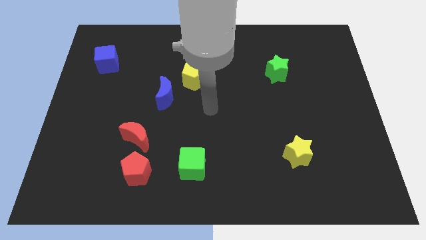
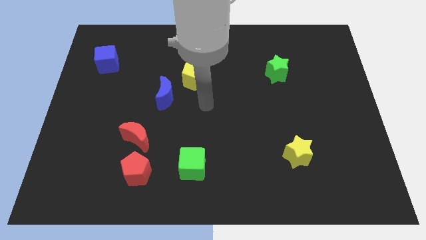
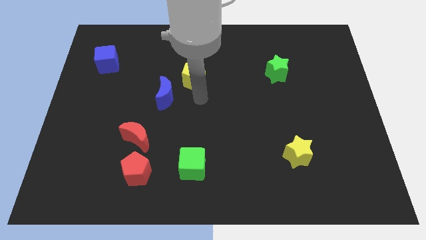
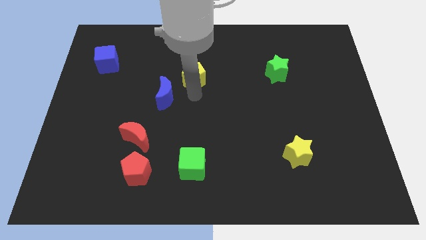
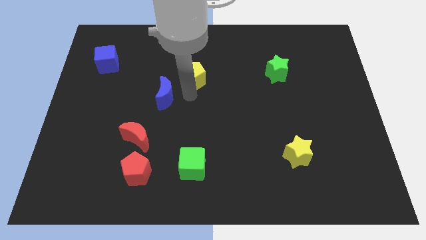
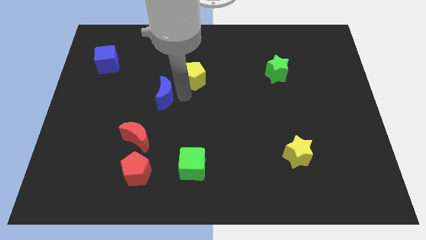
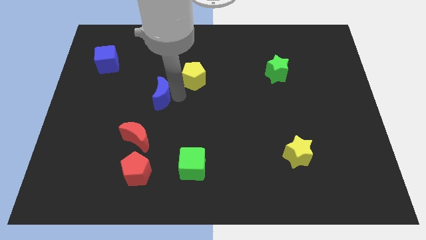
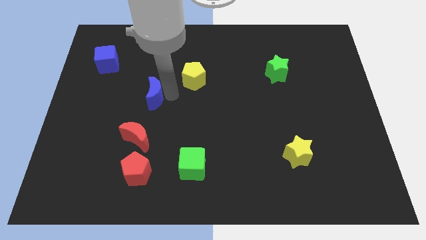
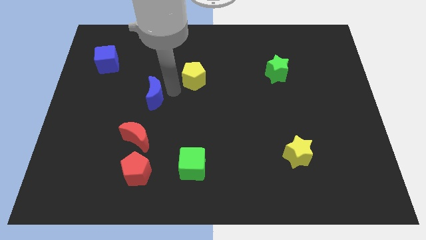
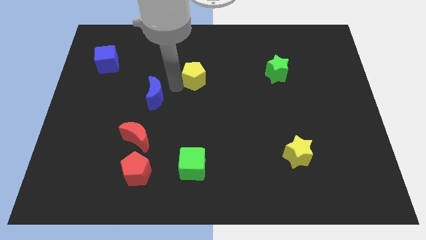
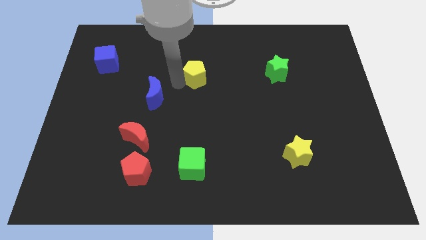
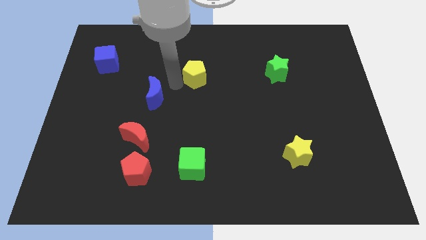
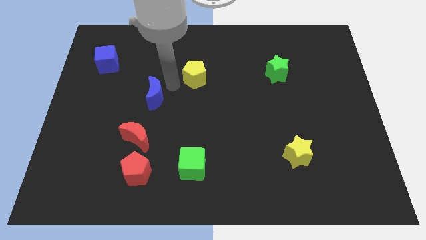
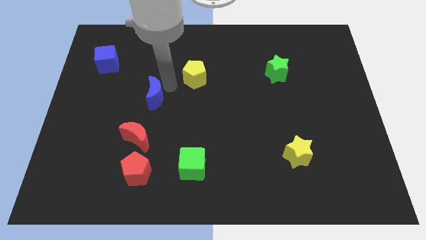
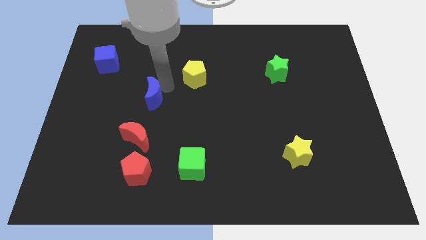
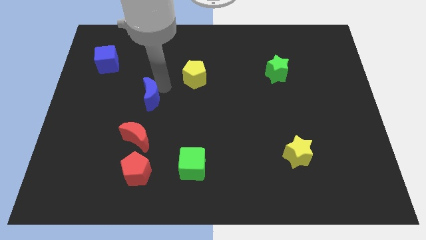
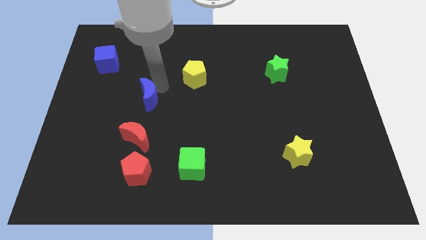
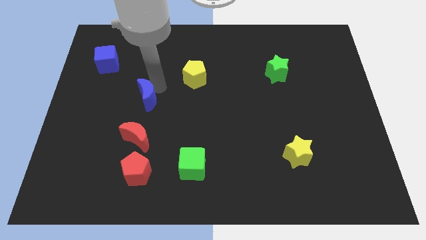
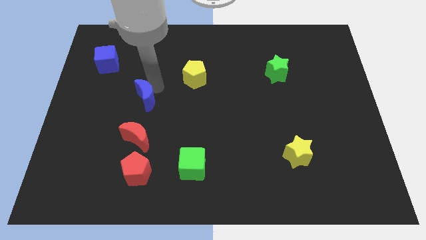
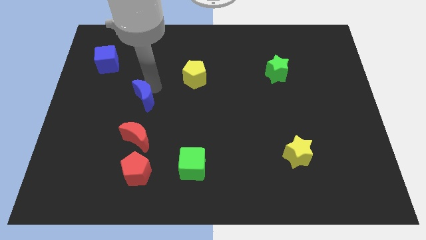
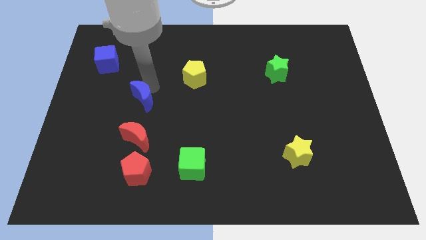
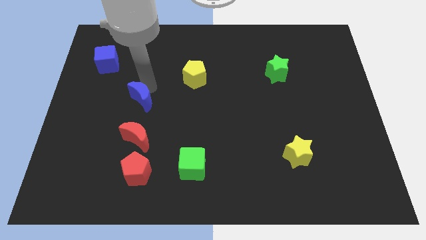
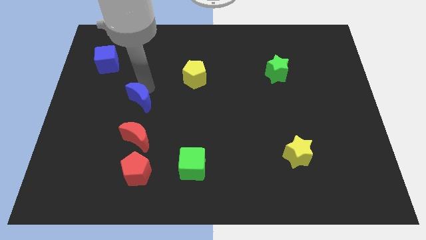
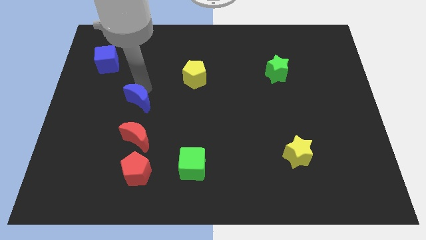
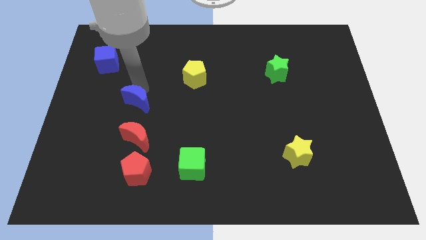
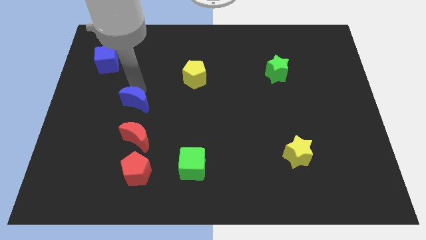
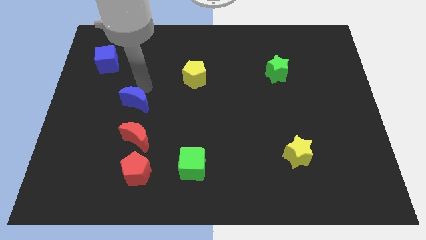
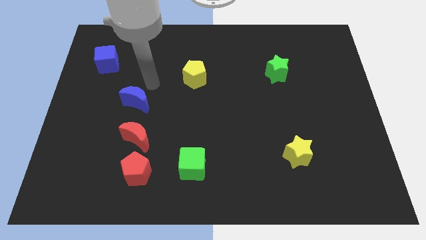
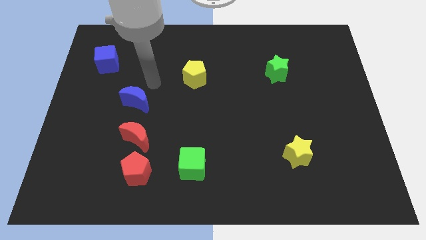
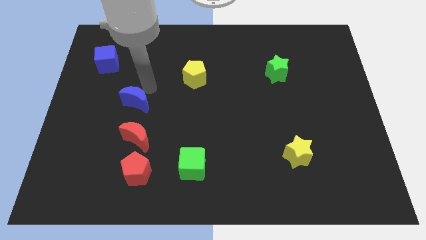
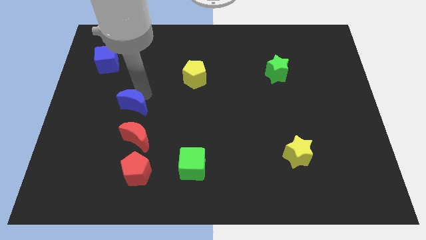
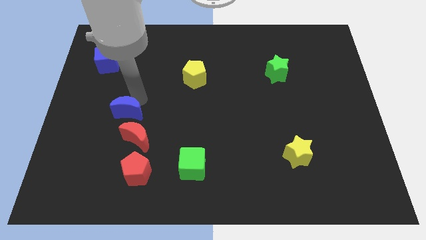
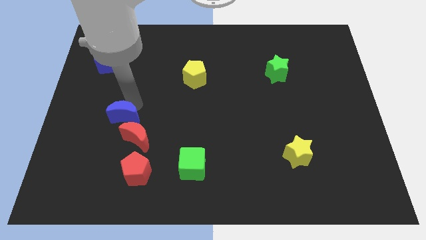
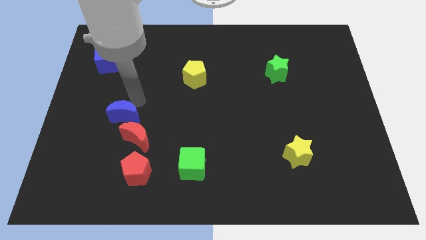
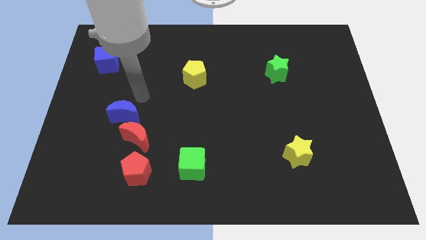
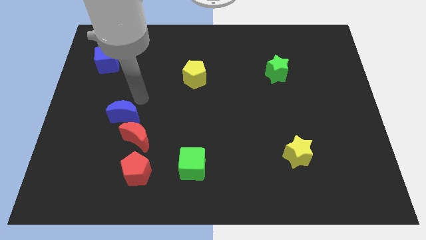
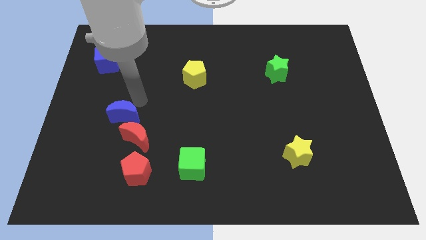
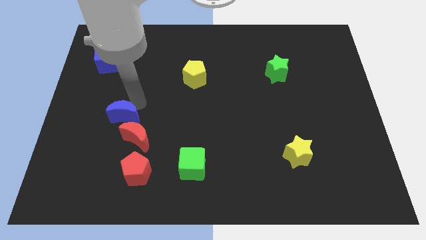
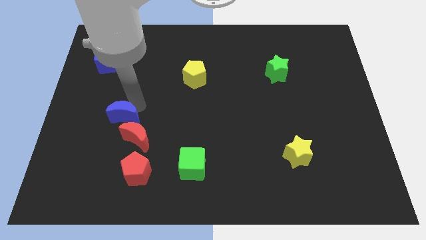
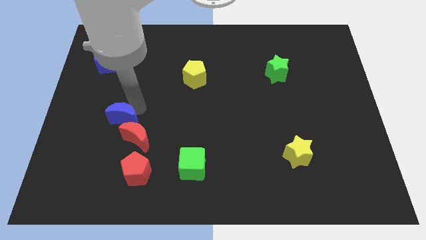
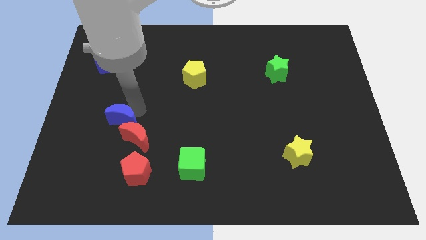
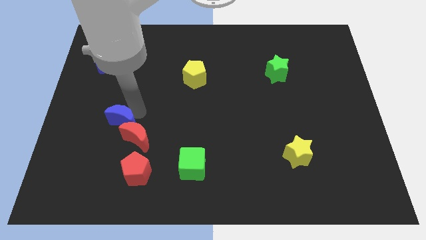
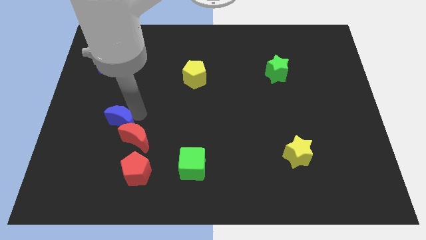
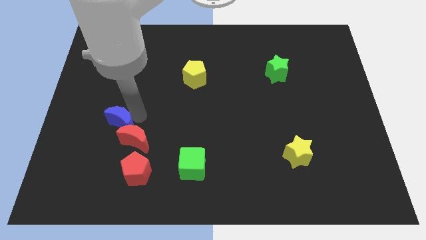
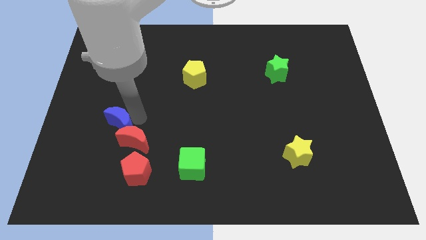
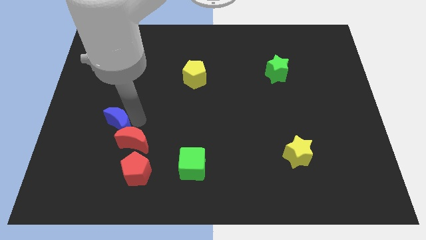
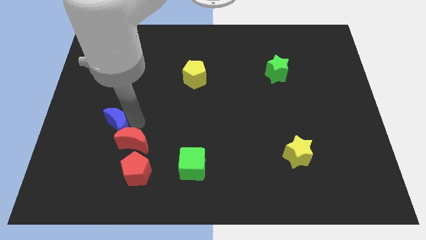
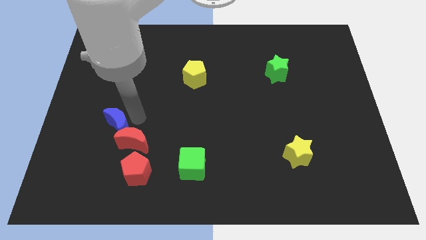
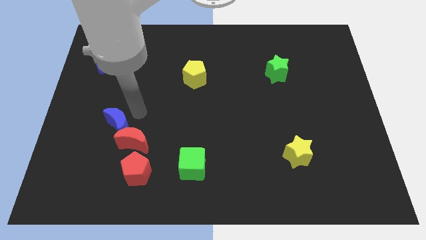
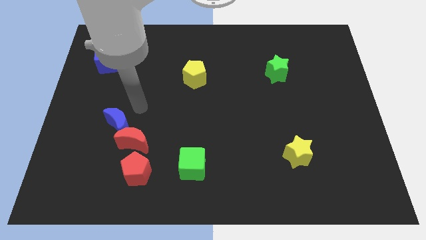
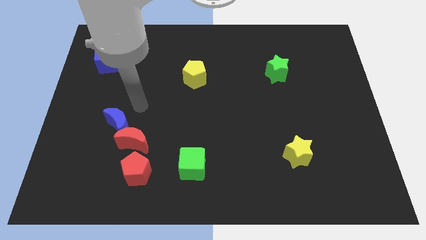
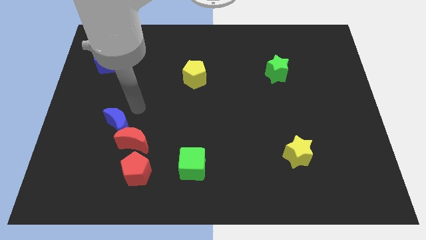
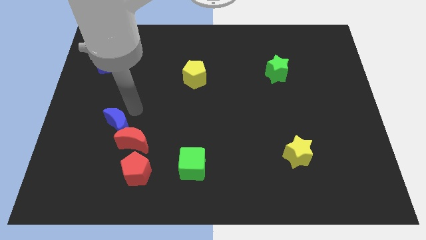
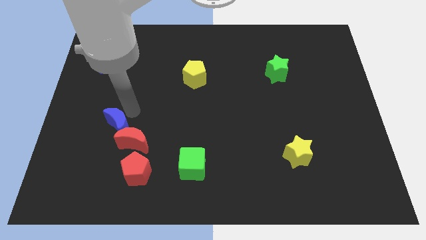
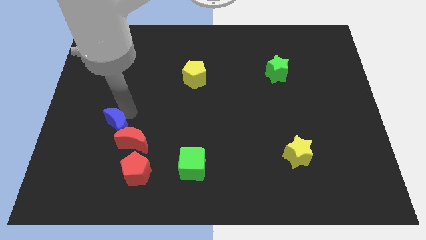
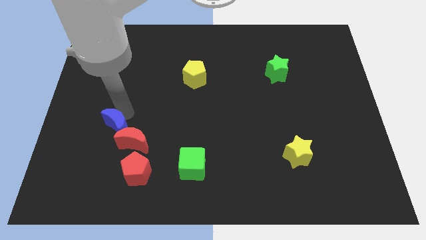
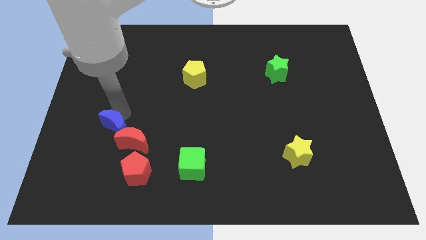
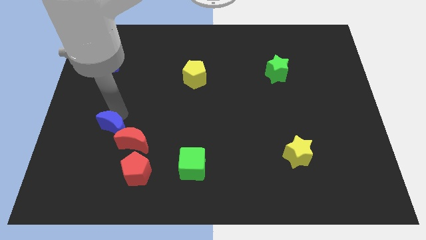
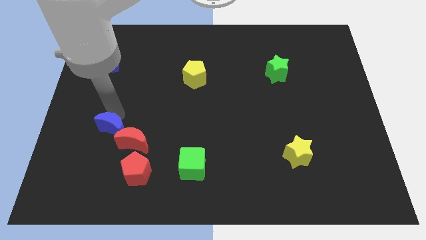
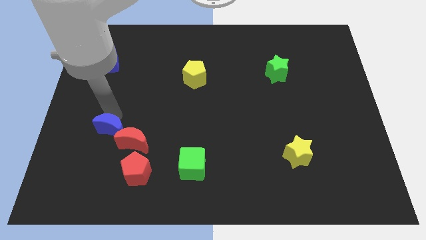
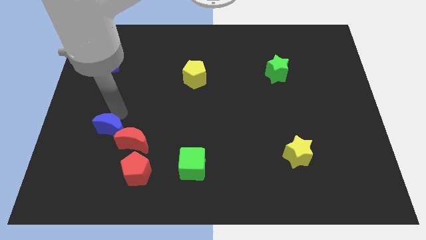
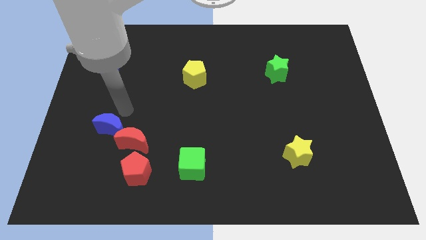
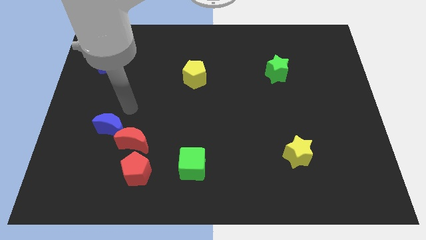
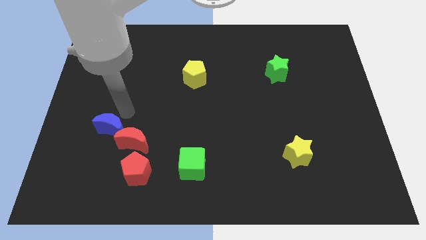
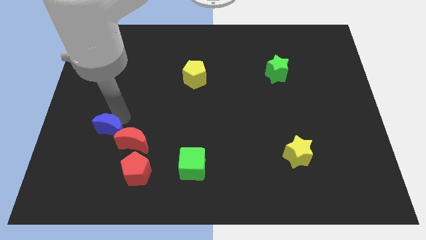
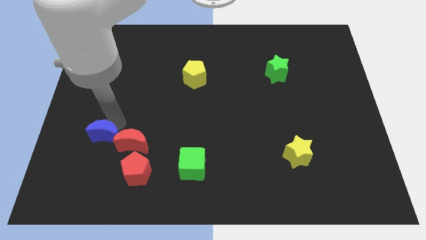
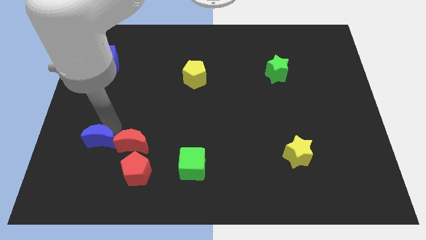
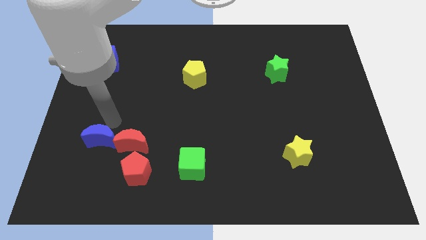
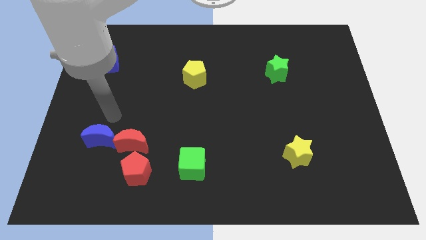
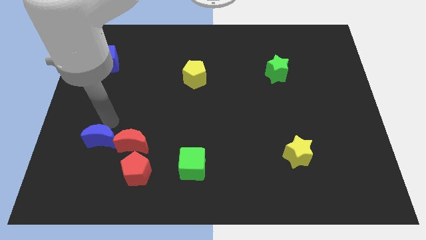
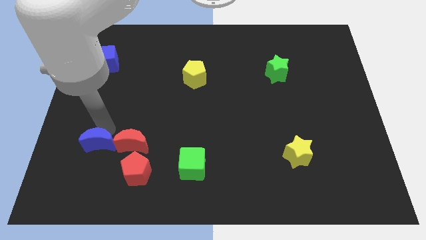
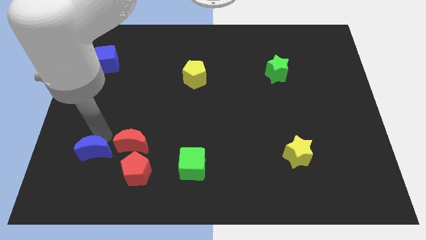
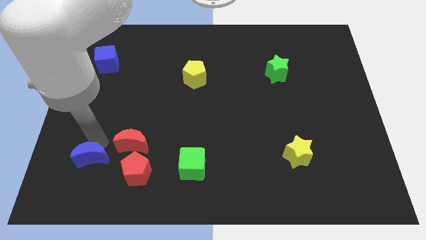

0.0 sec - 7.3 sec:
move the blue moon just left of the red pentagon

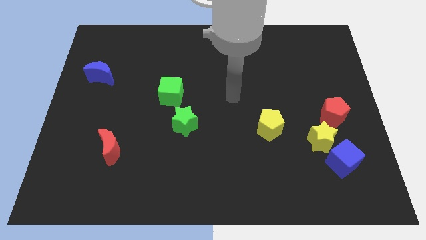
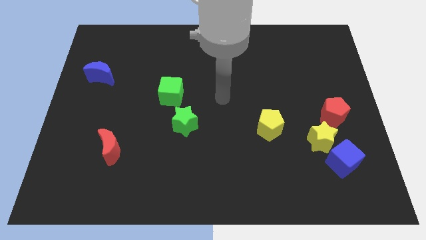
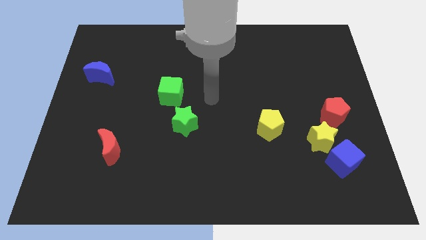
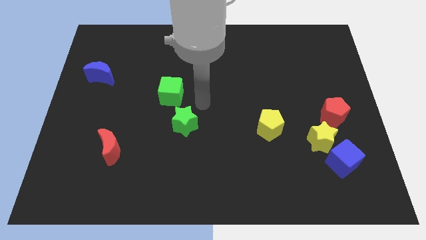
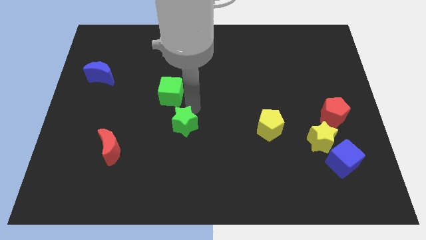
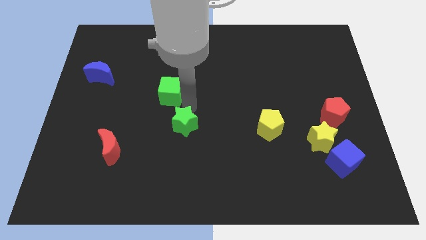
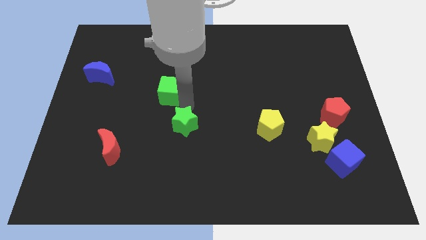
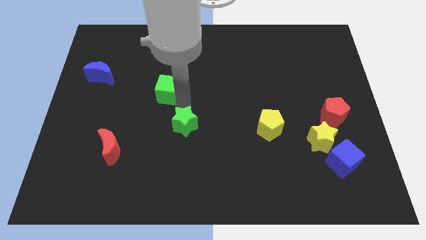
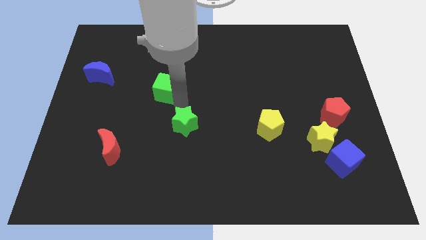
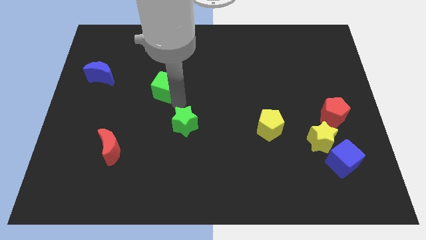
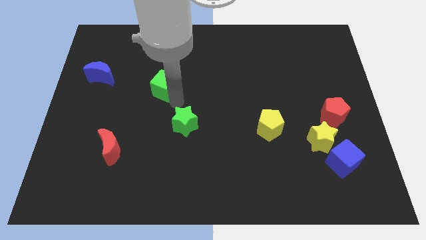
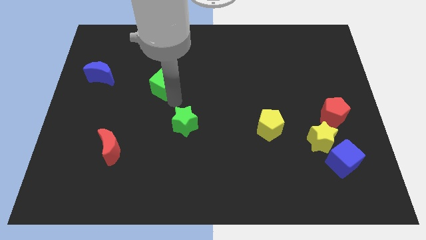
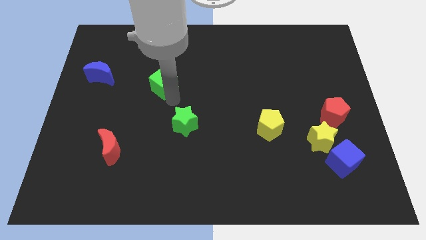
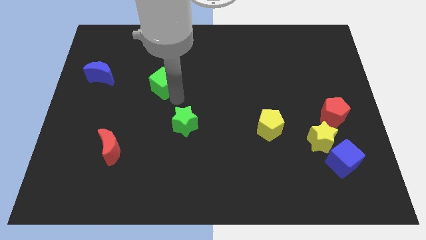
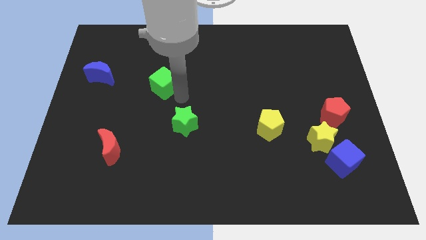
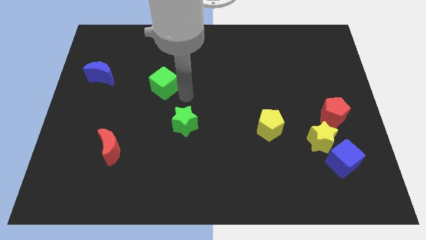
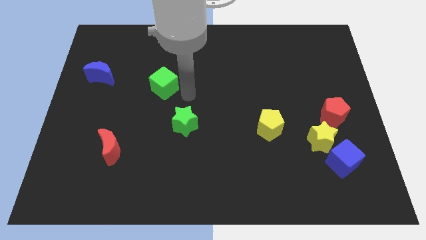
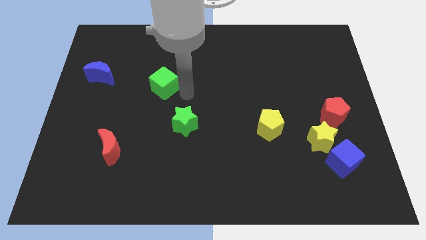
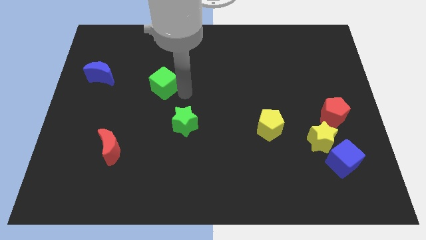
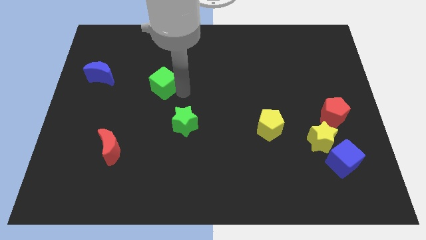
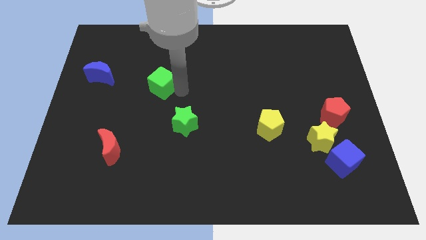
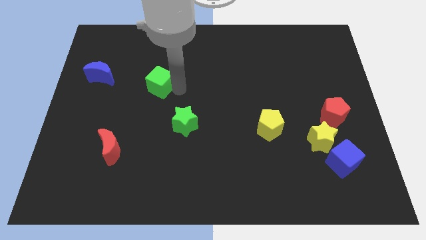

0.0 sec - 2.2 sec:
move the green cube to the right of the blue moon
